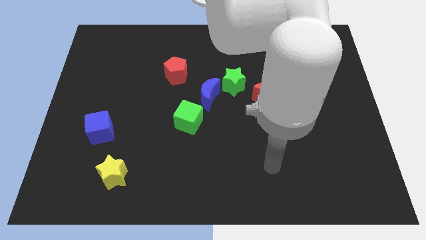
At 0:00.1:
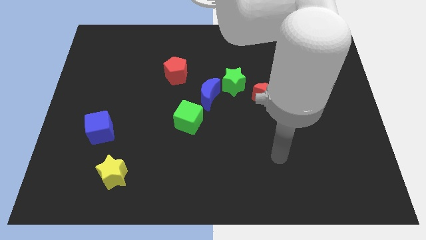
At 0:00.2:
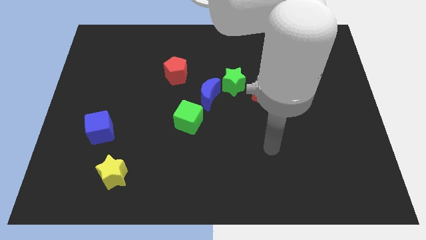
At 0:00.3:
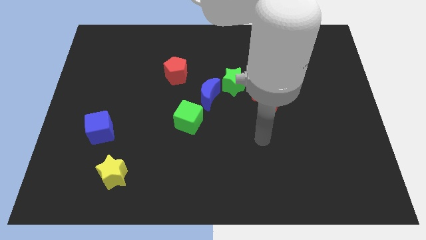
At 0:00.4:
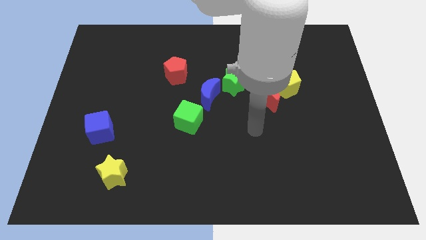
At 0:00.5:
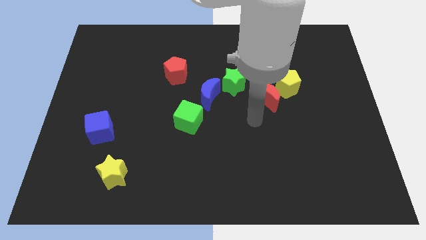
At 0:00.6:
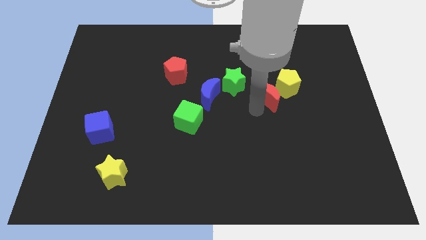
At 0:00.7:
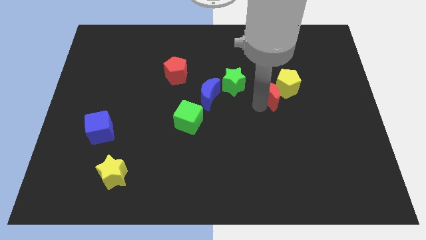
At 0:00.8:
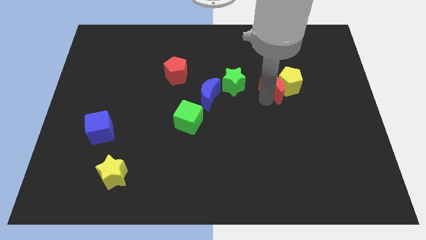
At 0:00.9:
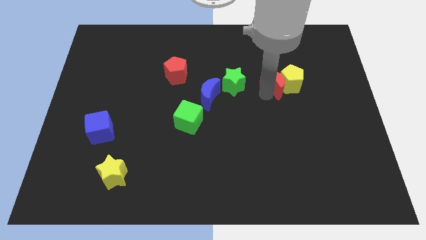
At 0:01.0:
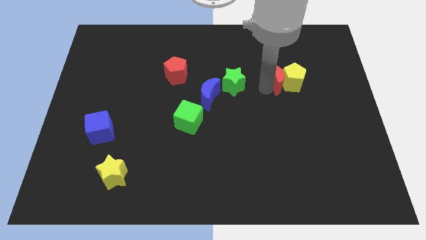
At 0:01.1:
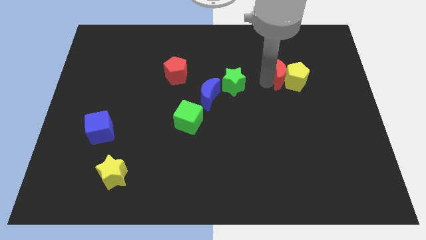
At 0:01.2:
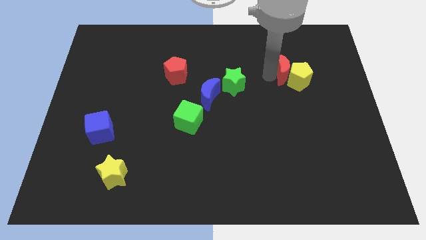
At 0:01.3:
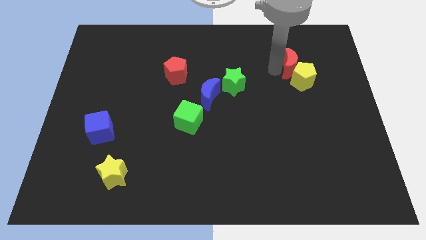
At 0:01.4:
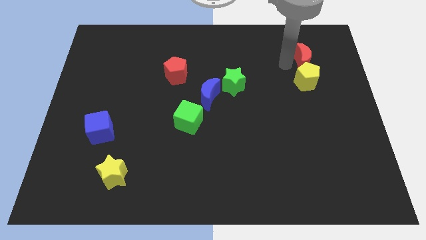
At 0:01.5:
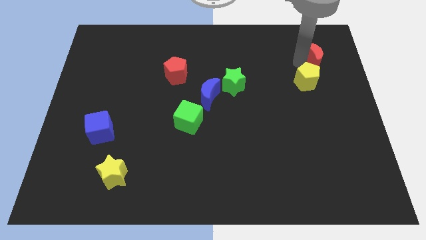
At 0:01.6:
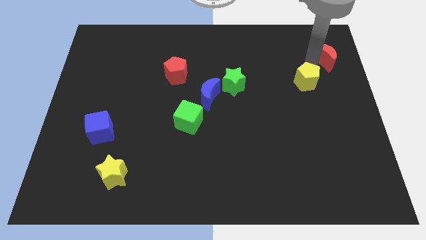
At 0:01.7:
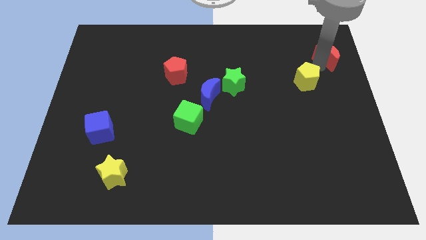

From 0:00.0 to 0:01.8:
move the yellow pentagon away from the red moon

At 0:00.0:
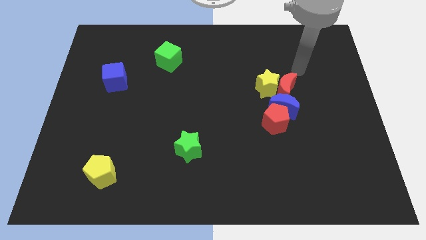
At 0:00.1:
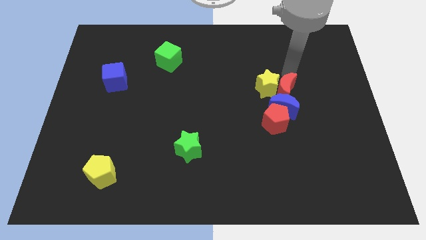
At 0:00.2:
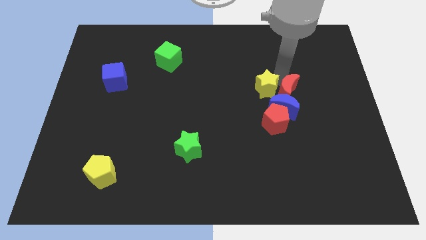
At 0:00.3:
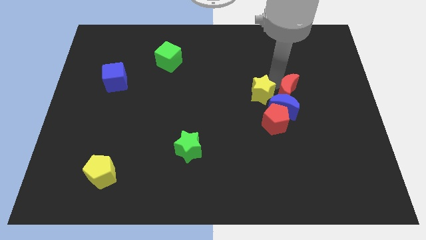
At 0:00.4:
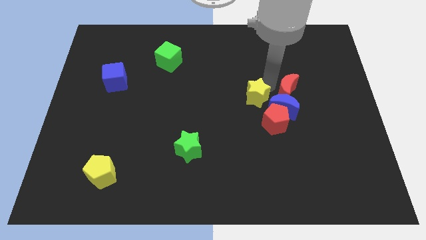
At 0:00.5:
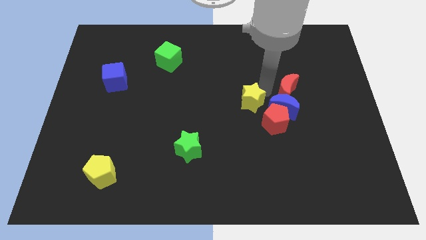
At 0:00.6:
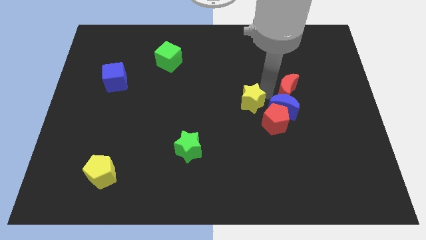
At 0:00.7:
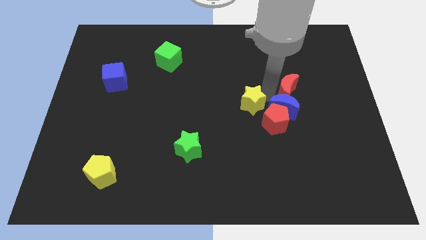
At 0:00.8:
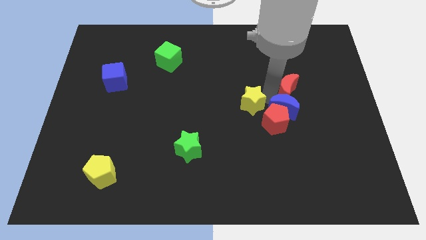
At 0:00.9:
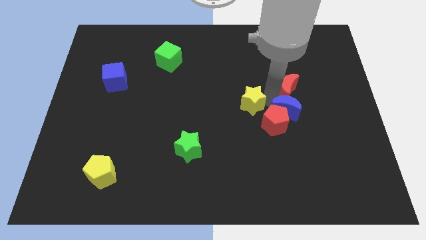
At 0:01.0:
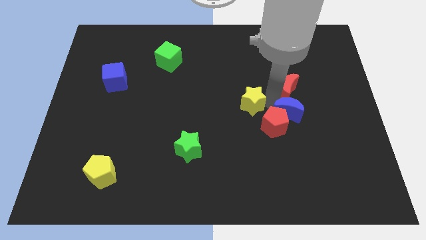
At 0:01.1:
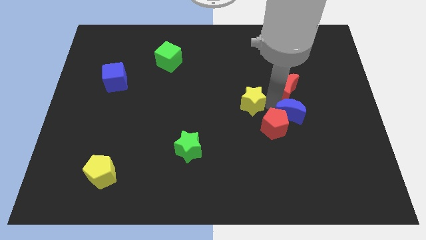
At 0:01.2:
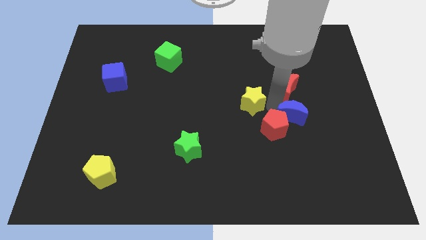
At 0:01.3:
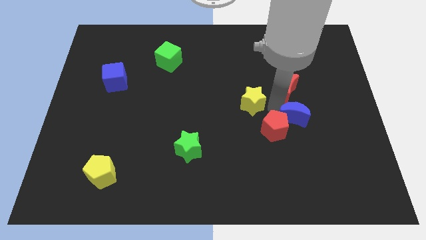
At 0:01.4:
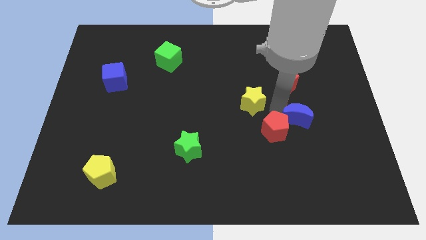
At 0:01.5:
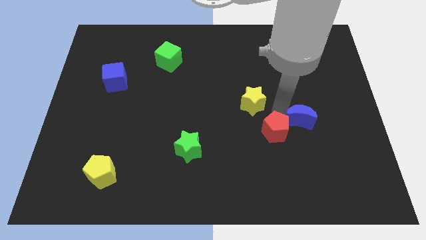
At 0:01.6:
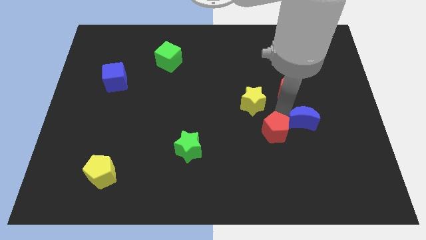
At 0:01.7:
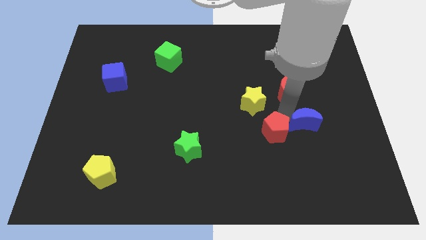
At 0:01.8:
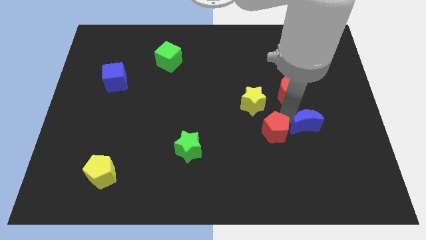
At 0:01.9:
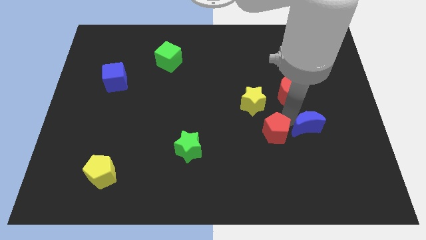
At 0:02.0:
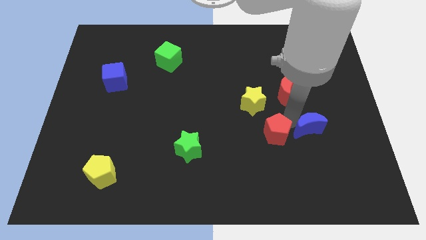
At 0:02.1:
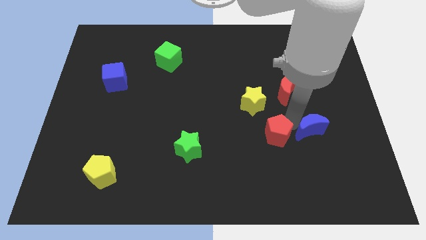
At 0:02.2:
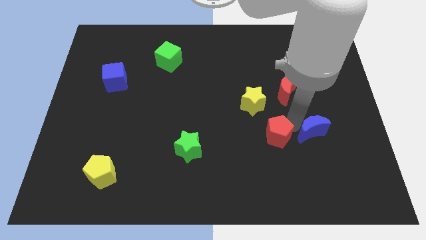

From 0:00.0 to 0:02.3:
separate the blue moon from the red pentagon, red moon, and yellow star

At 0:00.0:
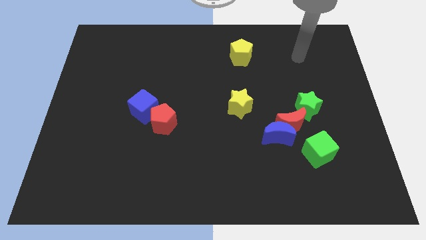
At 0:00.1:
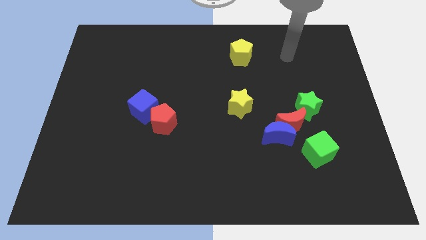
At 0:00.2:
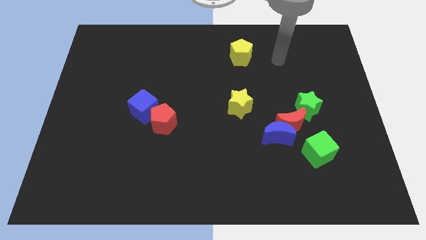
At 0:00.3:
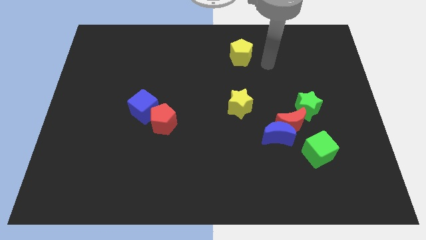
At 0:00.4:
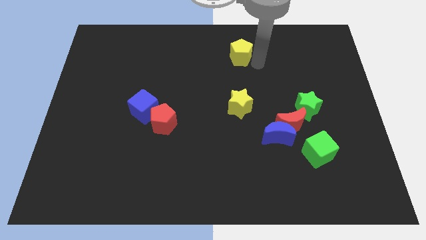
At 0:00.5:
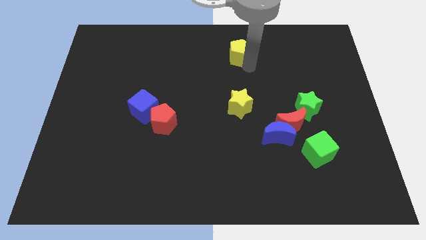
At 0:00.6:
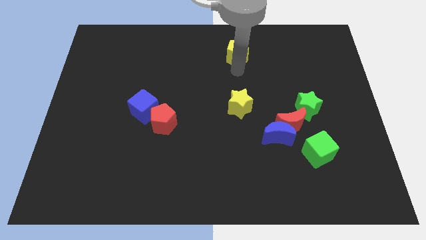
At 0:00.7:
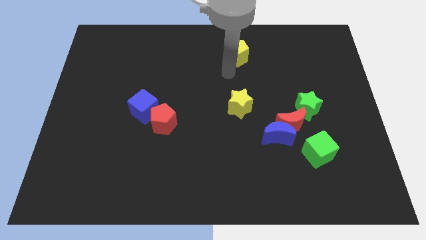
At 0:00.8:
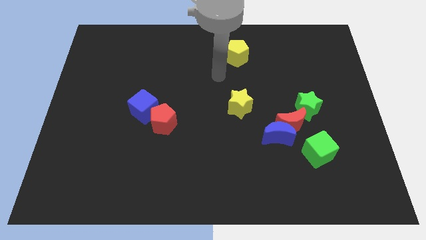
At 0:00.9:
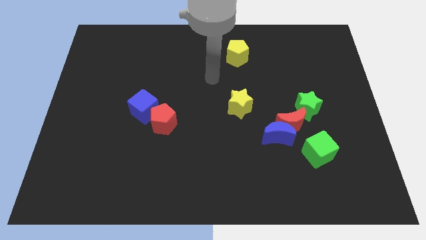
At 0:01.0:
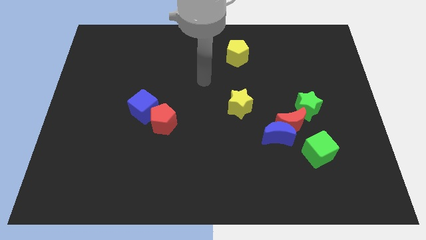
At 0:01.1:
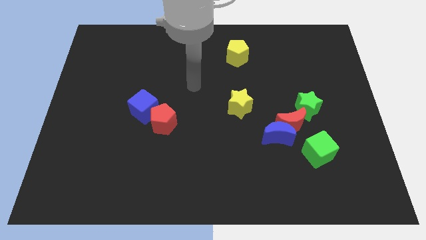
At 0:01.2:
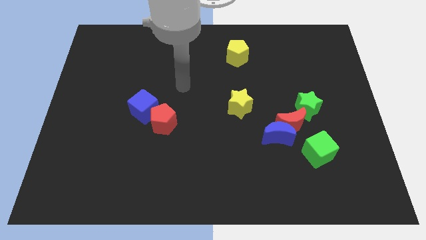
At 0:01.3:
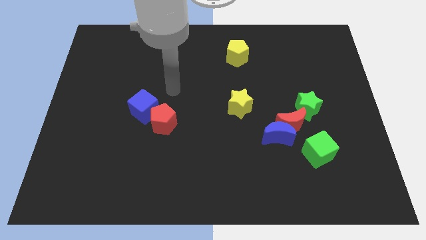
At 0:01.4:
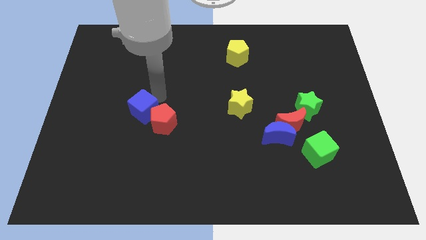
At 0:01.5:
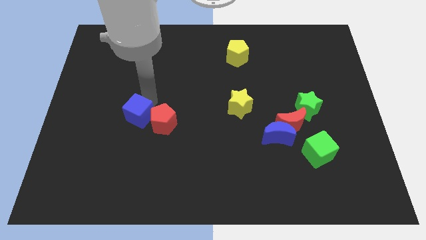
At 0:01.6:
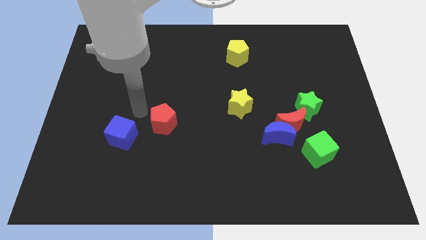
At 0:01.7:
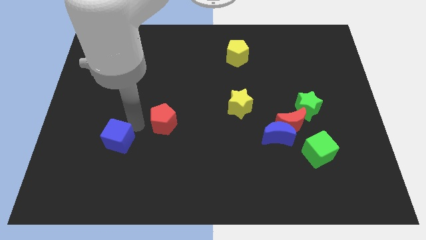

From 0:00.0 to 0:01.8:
move the red pentagon away from the blue cube

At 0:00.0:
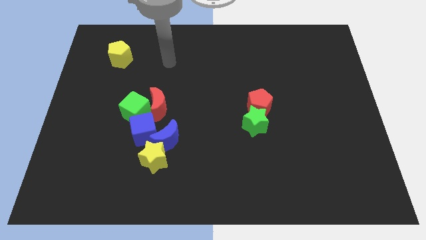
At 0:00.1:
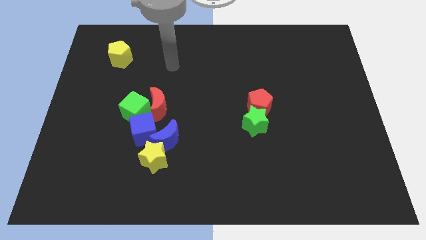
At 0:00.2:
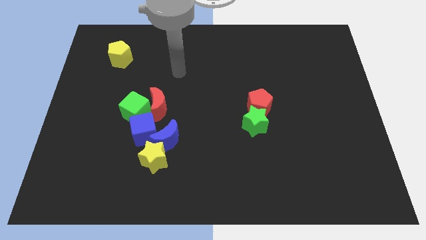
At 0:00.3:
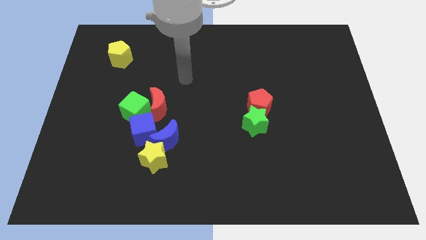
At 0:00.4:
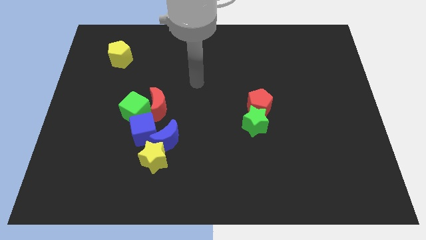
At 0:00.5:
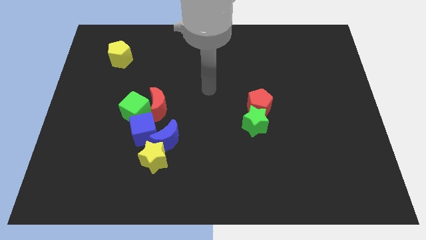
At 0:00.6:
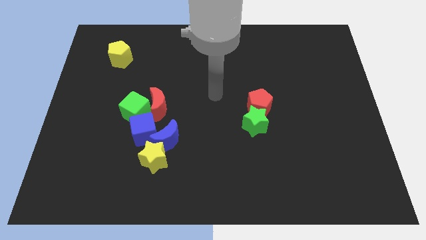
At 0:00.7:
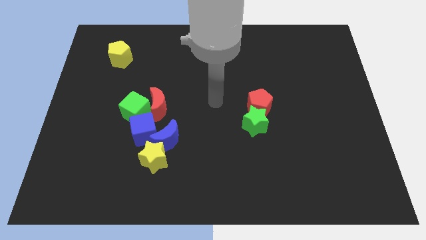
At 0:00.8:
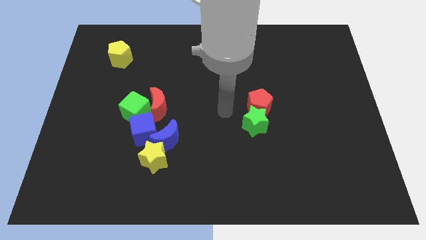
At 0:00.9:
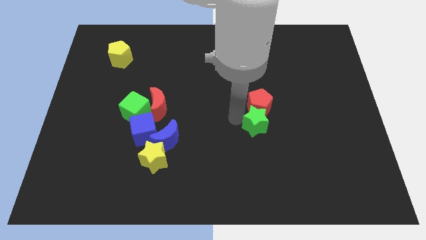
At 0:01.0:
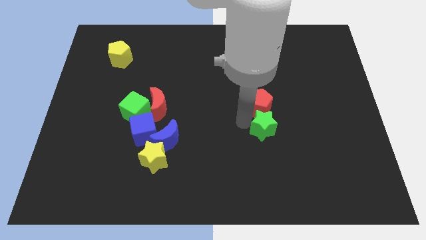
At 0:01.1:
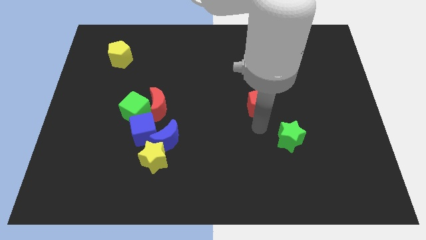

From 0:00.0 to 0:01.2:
pull the red pentagon apart from the green star

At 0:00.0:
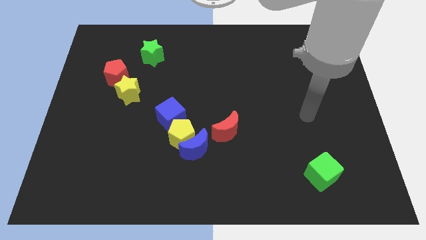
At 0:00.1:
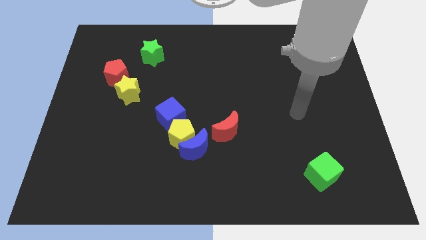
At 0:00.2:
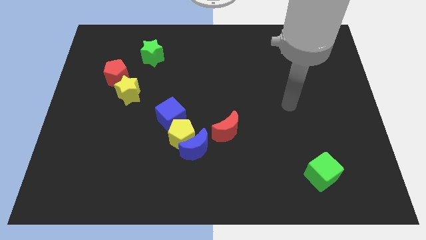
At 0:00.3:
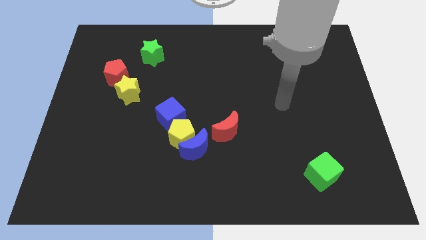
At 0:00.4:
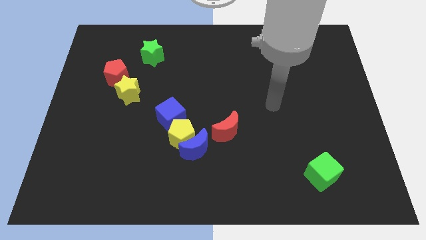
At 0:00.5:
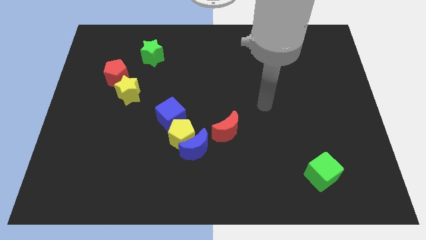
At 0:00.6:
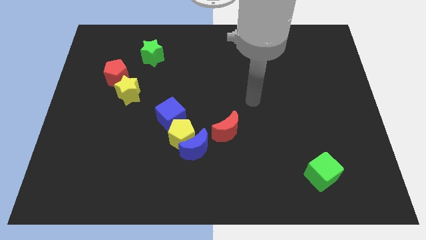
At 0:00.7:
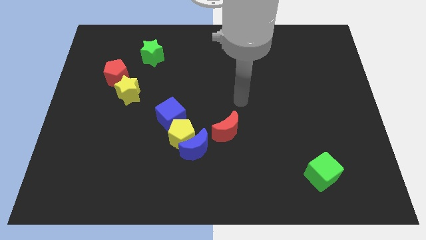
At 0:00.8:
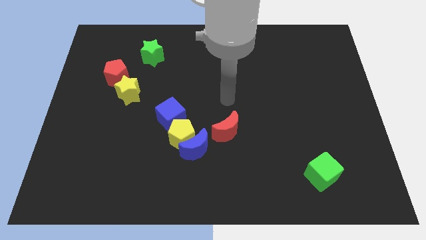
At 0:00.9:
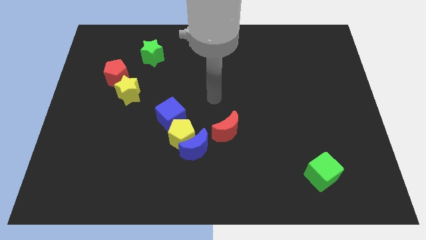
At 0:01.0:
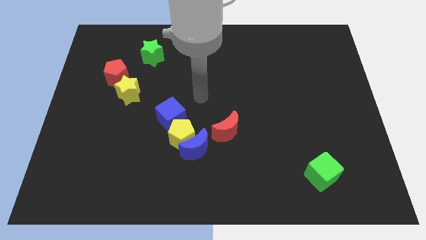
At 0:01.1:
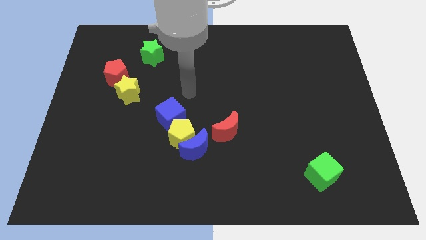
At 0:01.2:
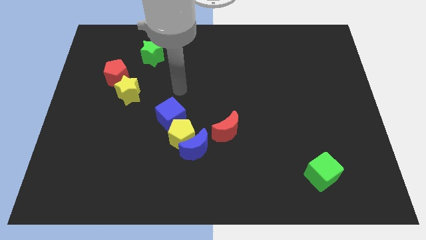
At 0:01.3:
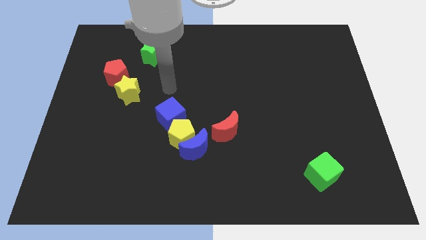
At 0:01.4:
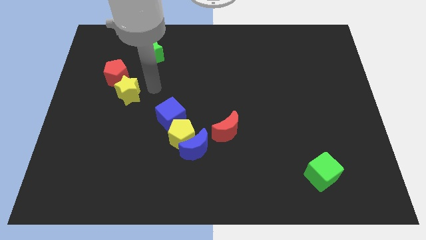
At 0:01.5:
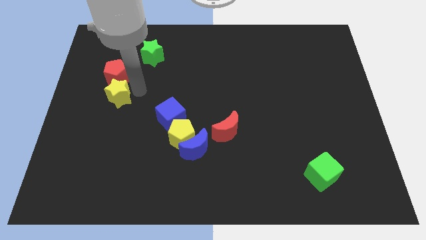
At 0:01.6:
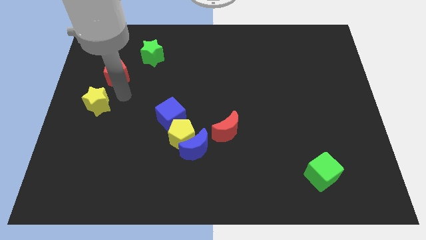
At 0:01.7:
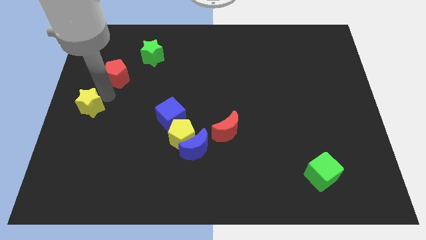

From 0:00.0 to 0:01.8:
move the red pentagon away from the yellow star

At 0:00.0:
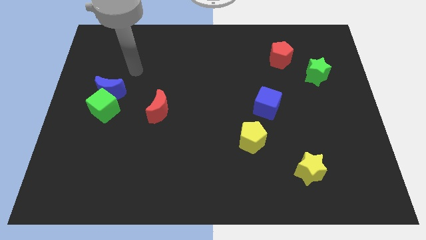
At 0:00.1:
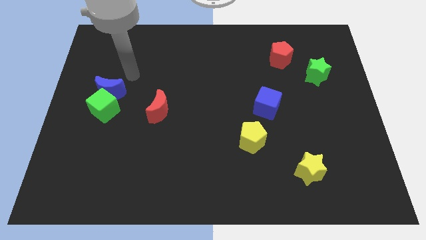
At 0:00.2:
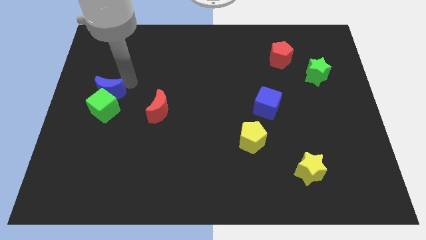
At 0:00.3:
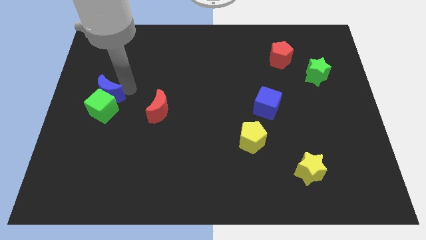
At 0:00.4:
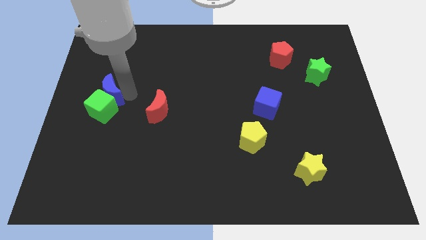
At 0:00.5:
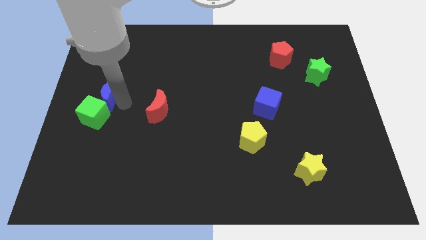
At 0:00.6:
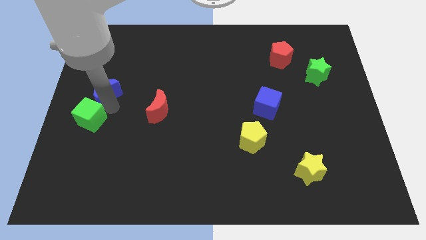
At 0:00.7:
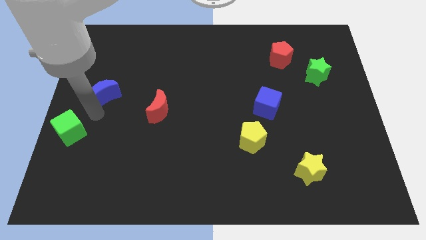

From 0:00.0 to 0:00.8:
pull the blue moon apart from the green cube
